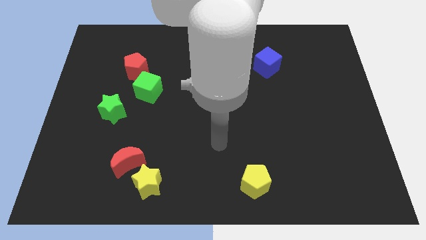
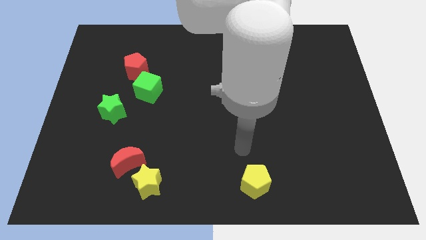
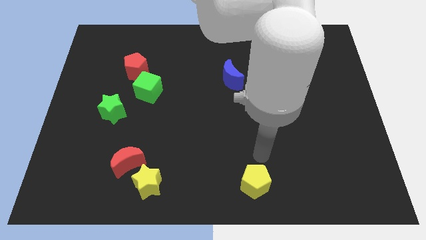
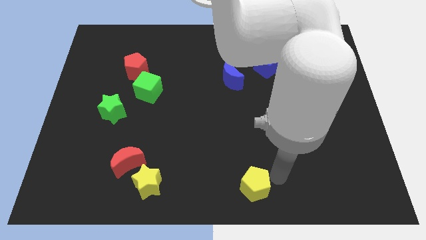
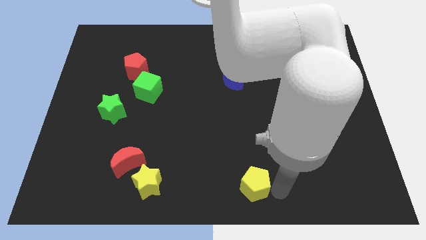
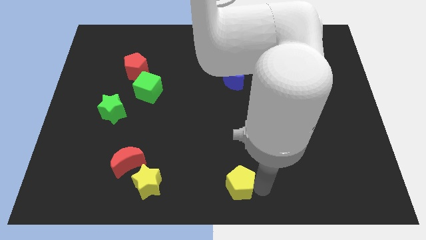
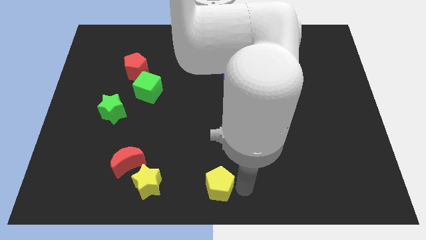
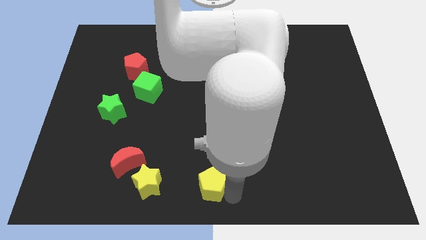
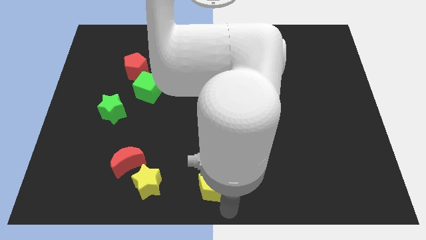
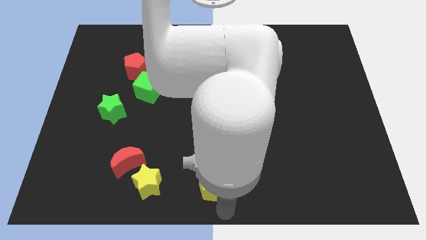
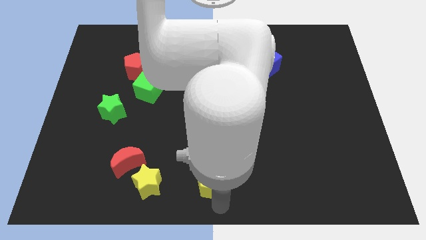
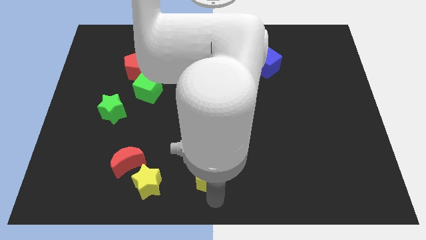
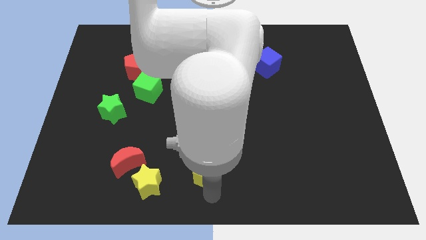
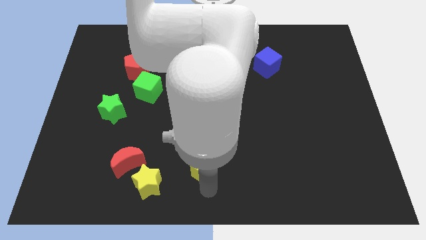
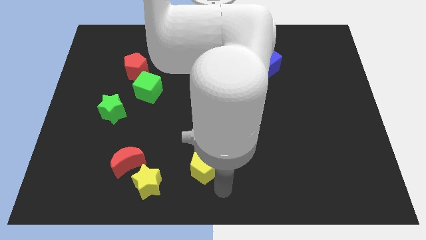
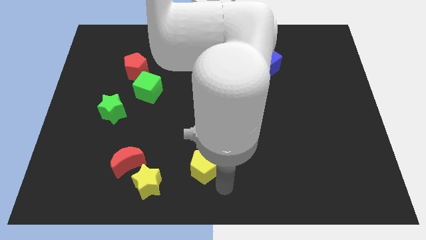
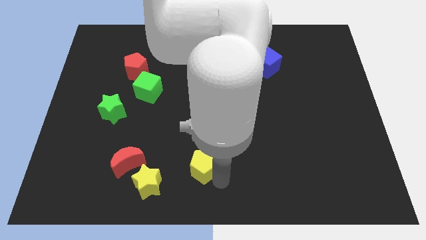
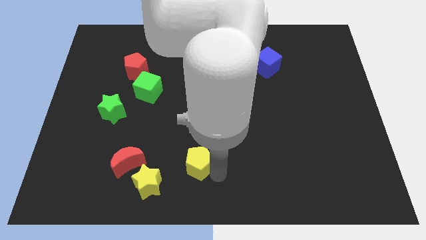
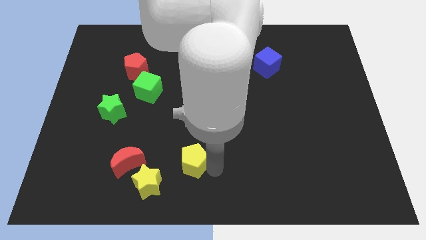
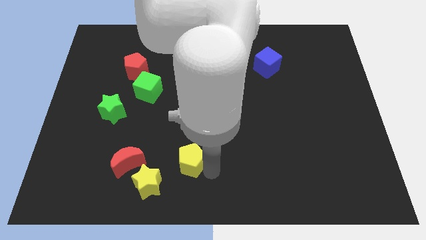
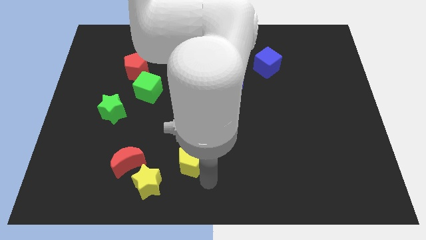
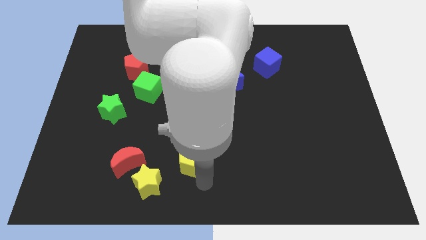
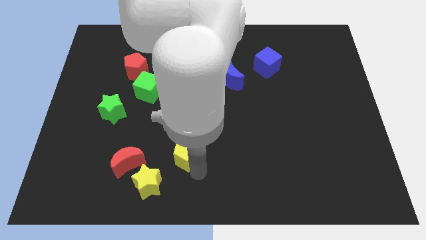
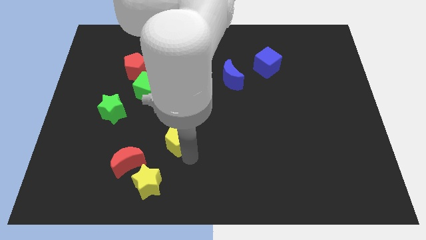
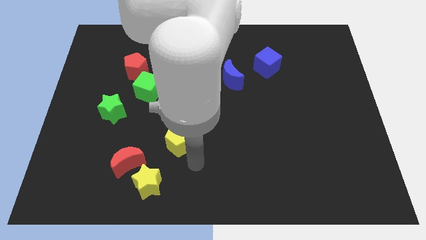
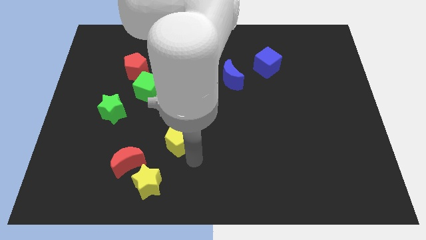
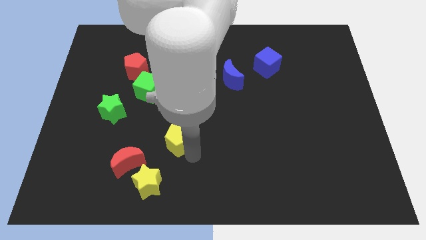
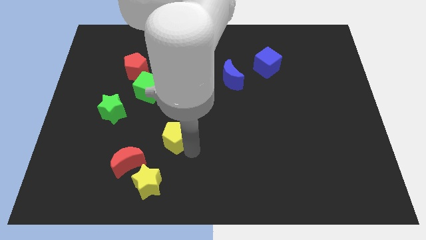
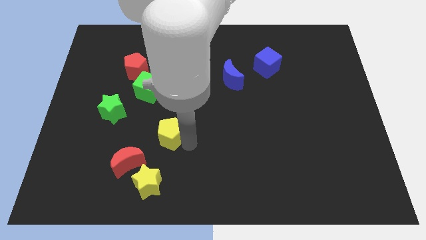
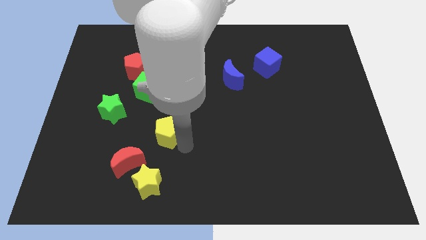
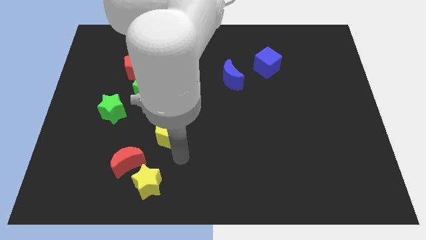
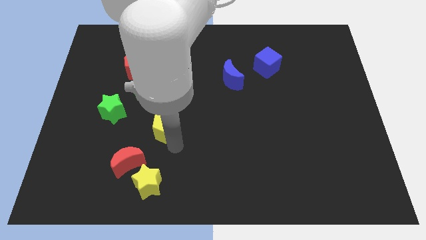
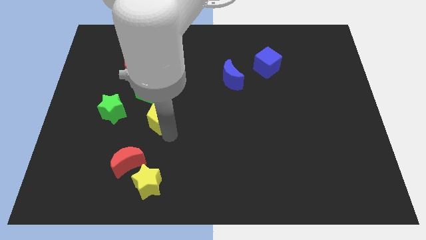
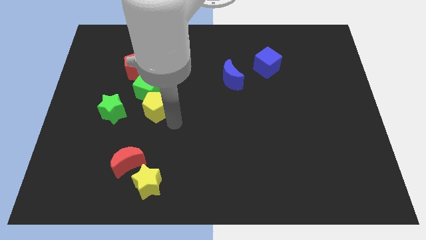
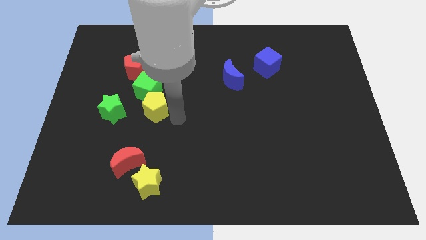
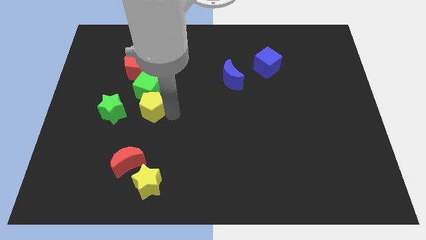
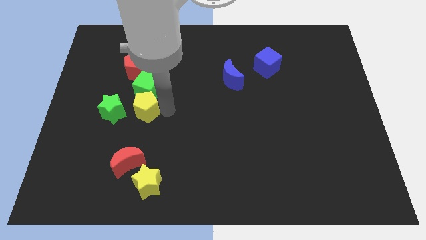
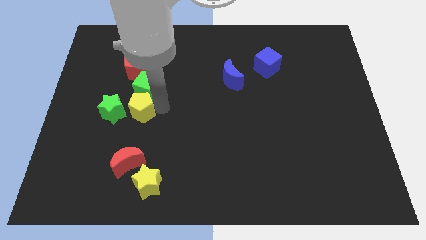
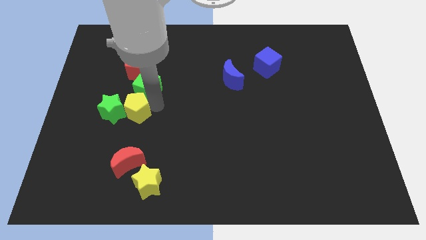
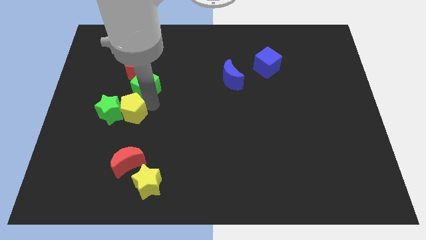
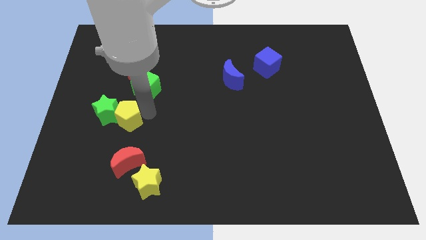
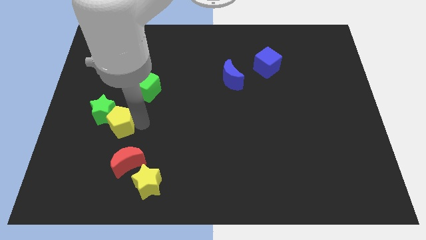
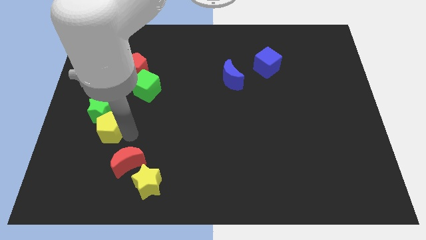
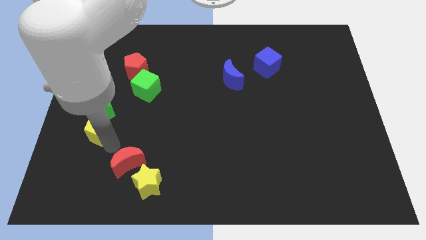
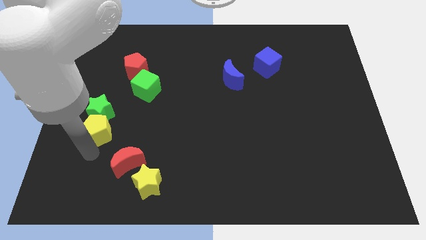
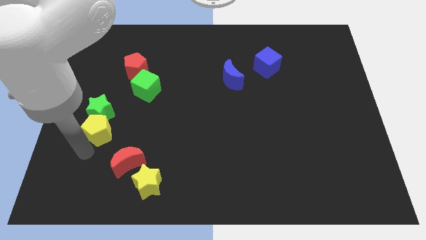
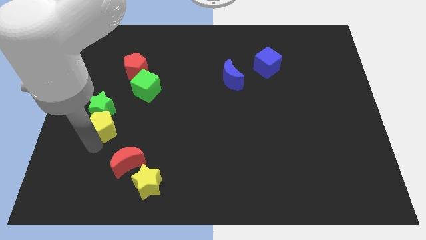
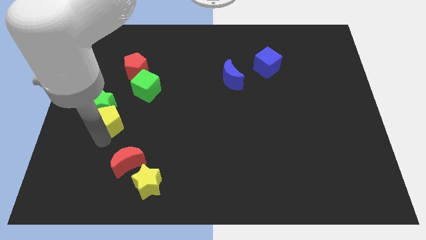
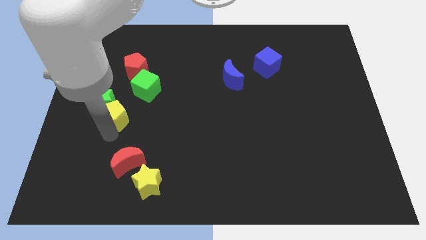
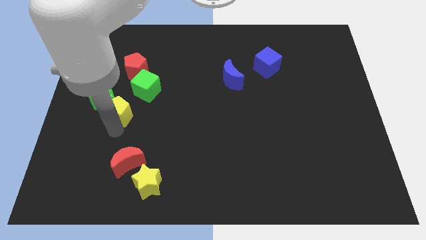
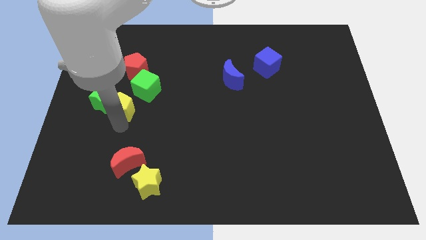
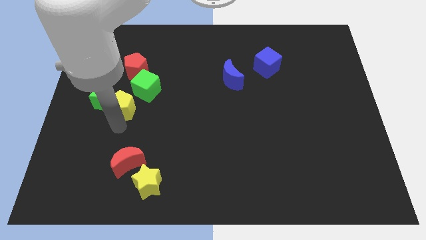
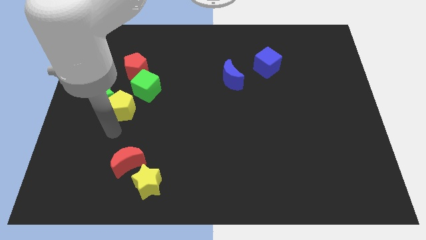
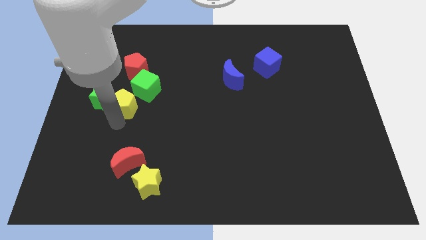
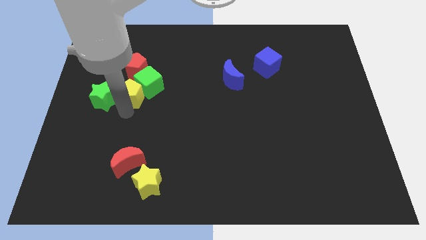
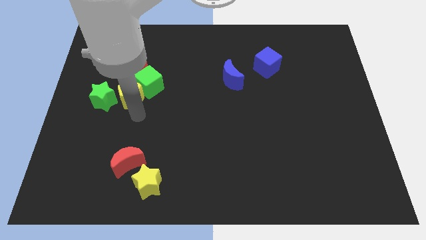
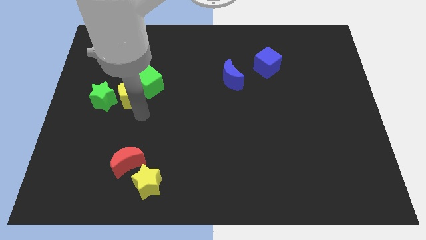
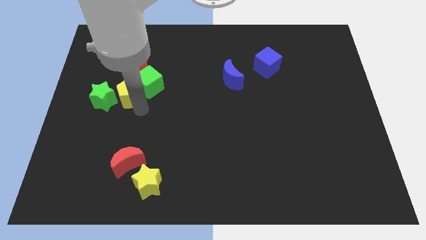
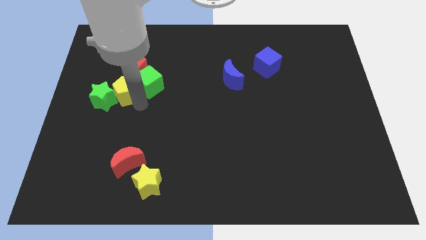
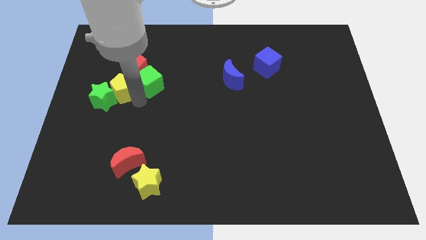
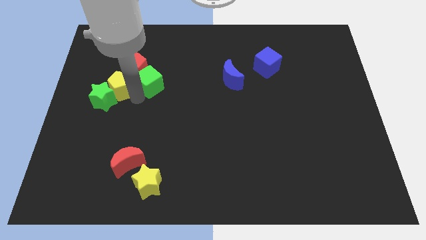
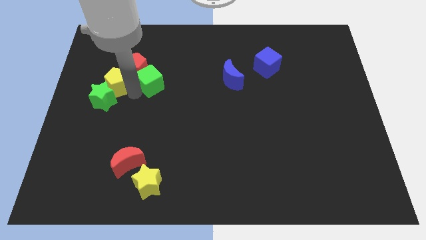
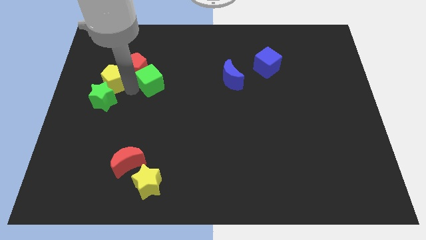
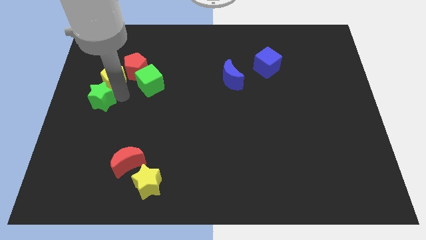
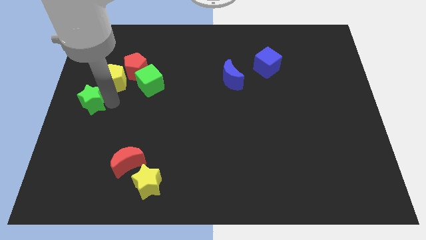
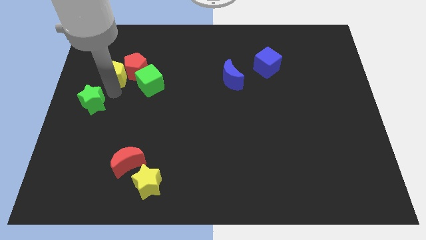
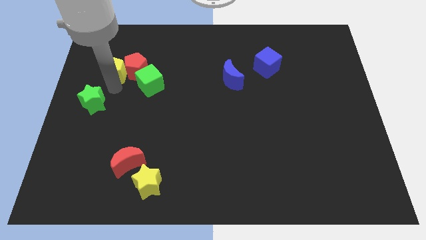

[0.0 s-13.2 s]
slide the yellow pentagon to the top left of the red pentagon

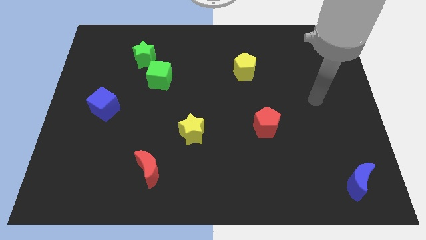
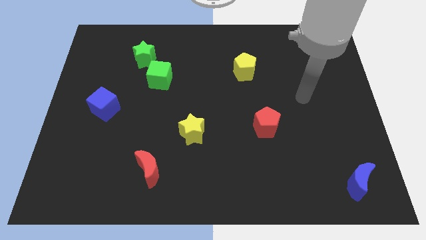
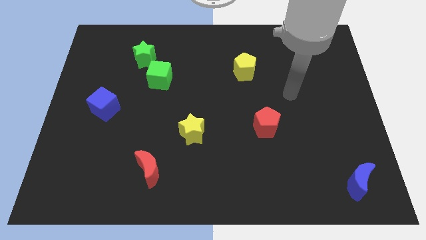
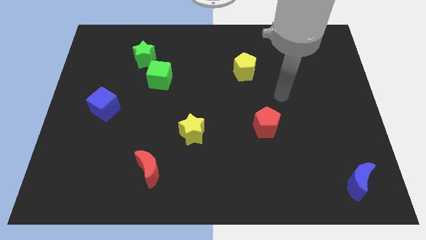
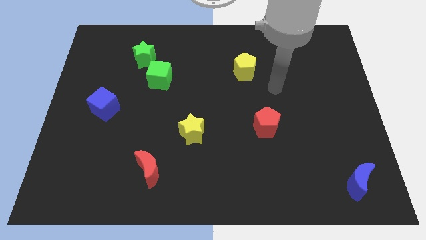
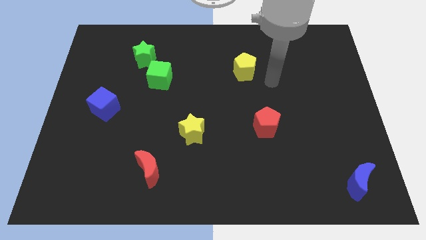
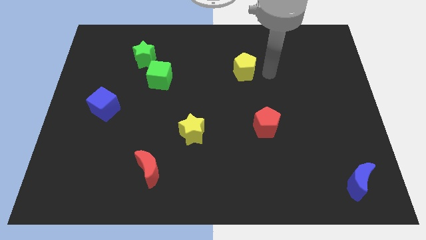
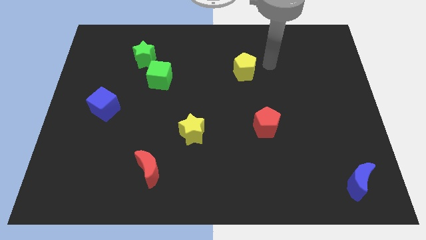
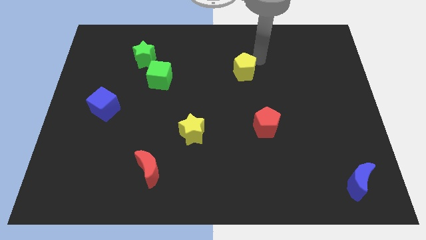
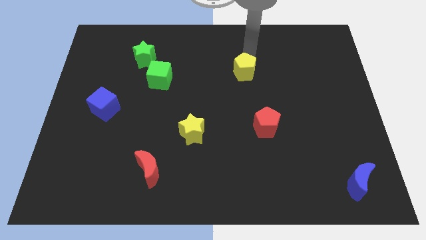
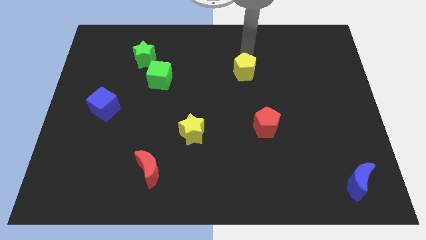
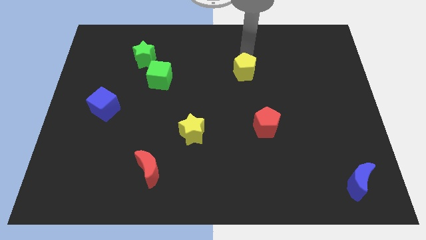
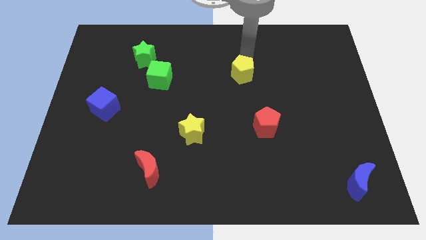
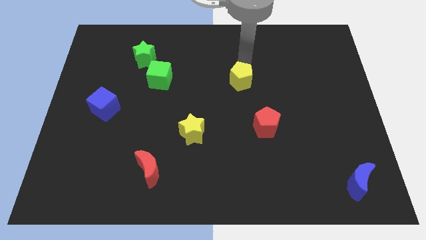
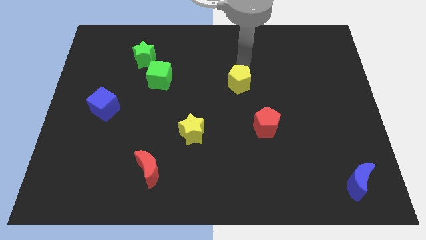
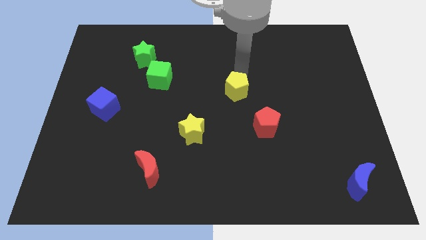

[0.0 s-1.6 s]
put the yellow pentagon diagonally up and to the left of the red pentagon

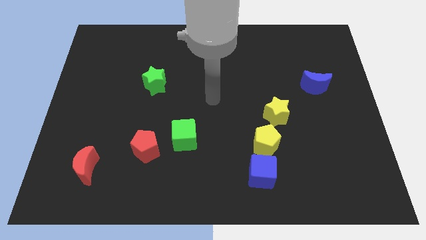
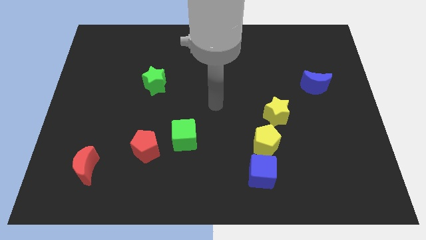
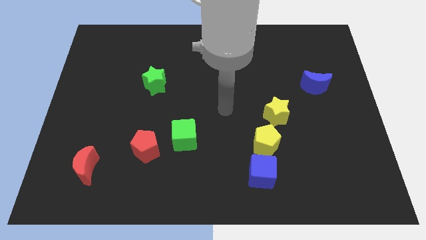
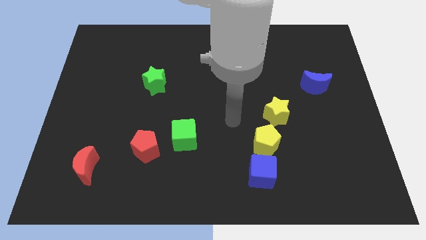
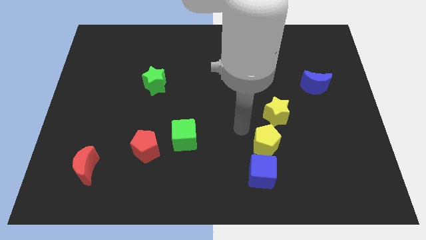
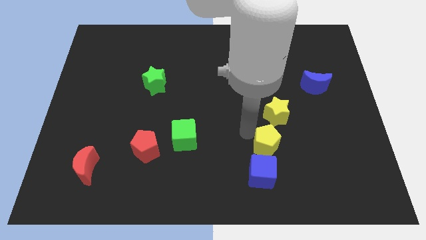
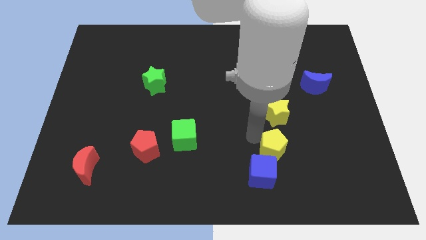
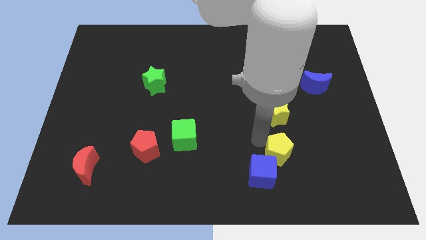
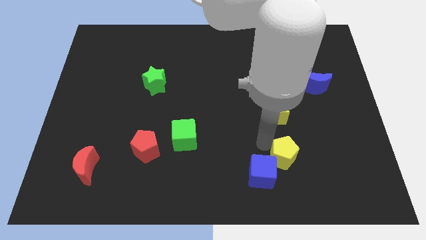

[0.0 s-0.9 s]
put the yellow pentagon to the right of the blue cube
